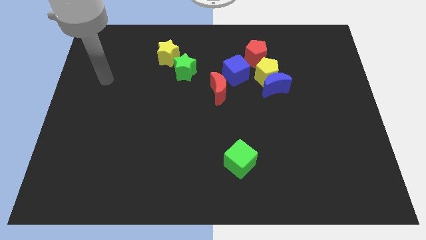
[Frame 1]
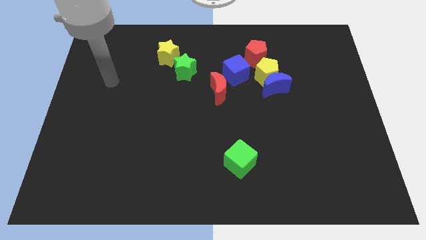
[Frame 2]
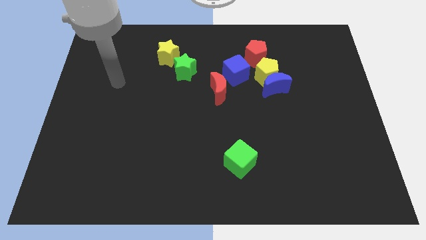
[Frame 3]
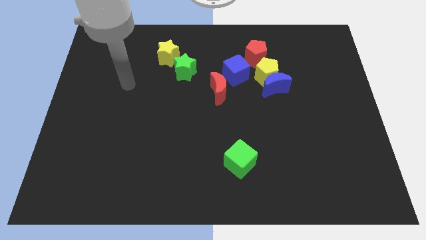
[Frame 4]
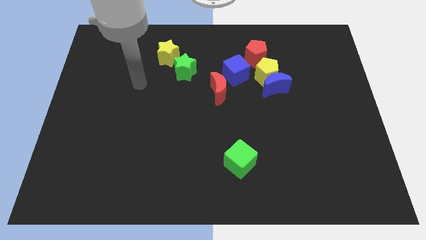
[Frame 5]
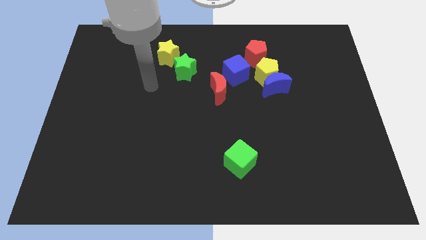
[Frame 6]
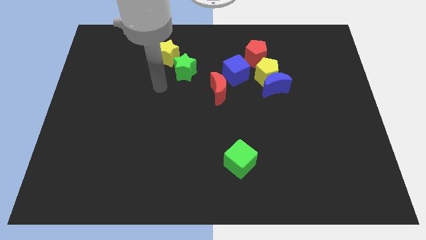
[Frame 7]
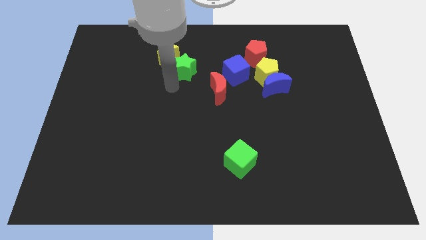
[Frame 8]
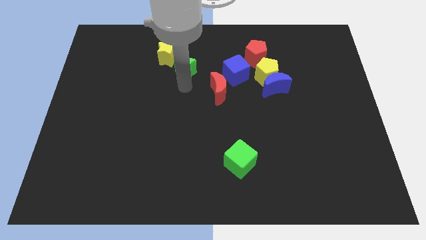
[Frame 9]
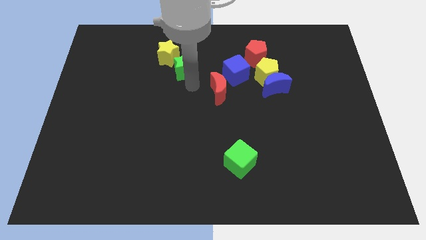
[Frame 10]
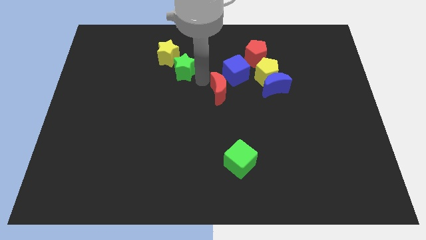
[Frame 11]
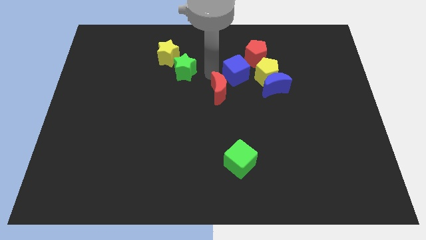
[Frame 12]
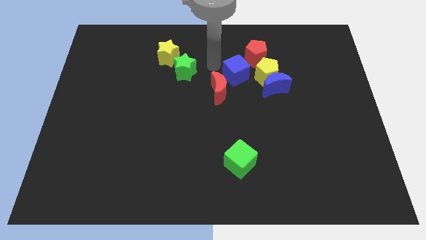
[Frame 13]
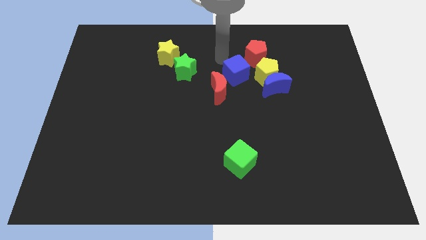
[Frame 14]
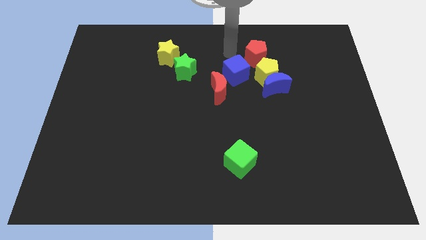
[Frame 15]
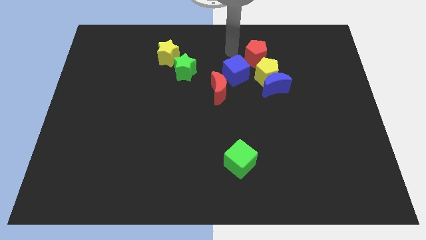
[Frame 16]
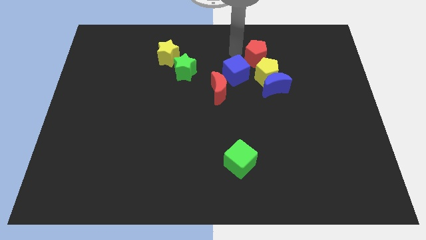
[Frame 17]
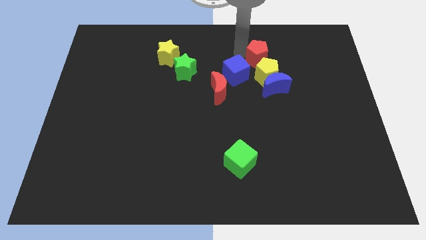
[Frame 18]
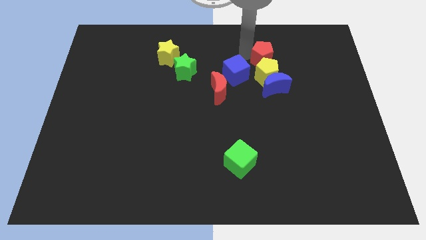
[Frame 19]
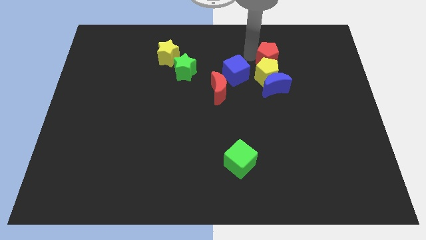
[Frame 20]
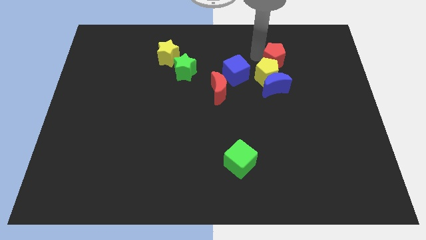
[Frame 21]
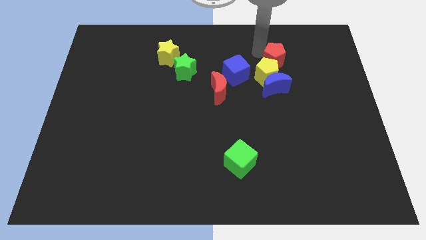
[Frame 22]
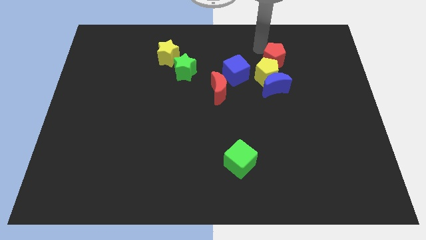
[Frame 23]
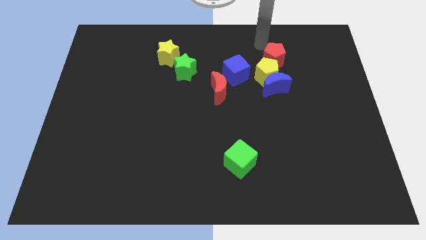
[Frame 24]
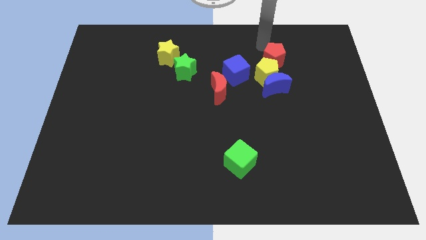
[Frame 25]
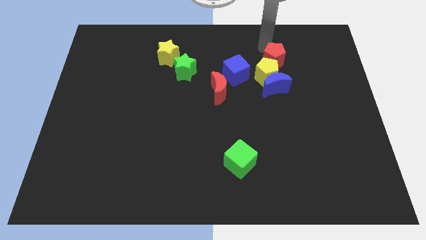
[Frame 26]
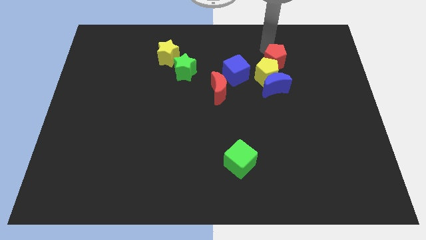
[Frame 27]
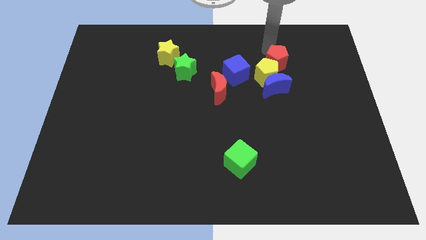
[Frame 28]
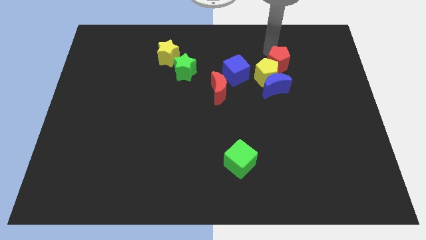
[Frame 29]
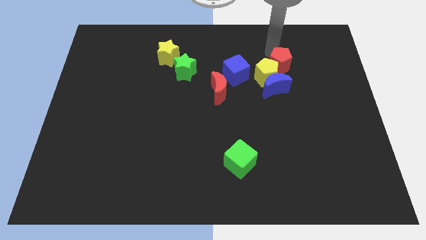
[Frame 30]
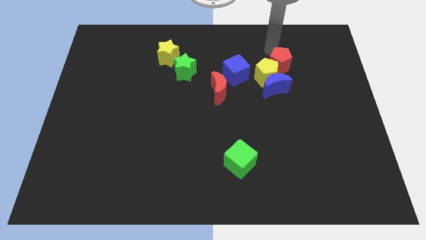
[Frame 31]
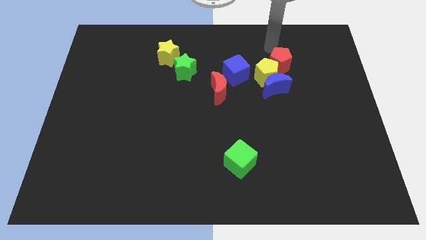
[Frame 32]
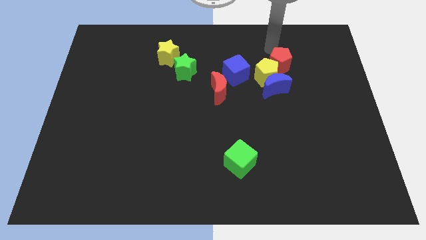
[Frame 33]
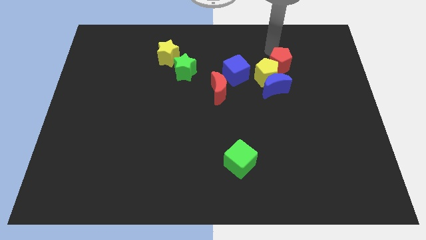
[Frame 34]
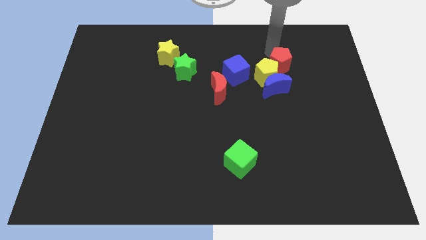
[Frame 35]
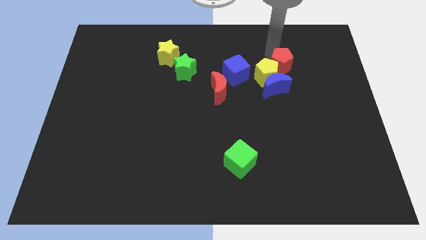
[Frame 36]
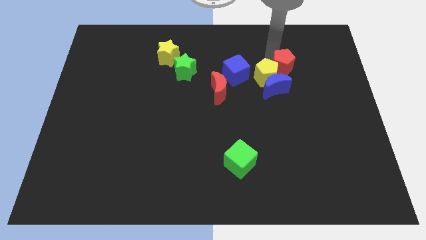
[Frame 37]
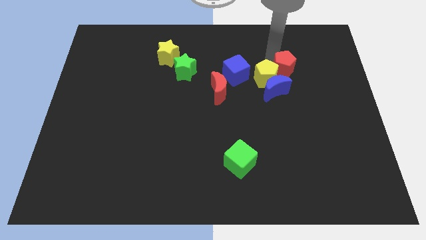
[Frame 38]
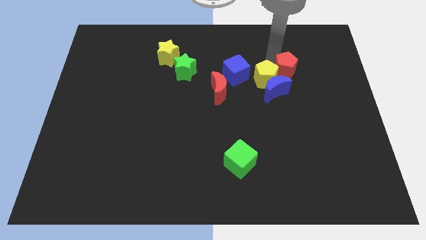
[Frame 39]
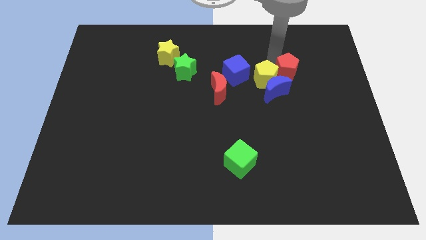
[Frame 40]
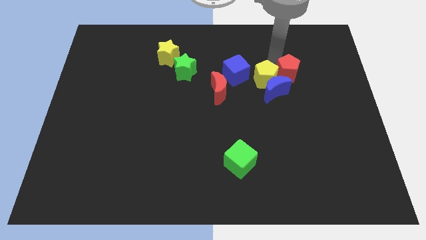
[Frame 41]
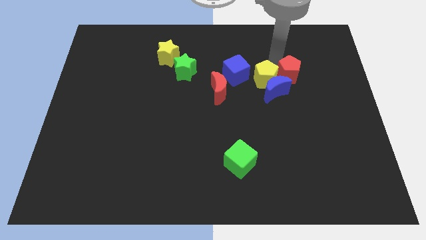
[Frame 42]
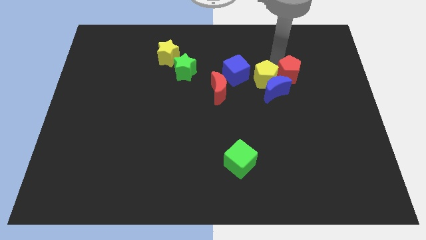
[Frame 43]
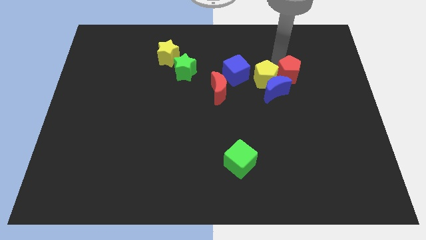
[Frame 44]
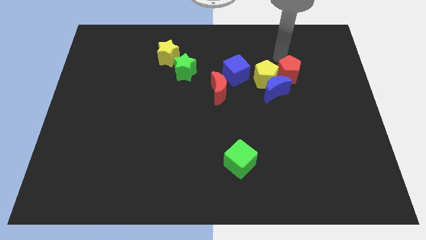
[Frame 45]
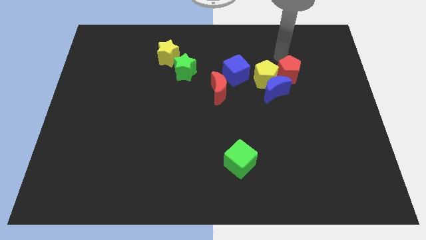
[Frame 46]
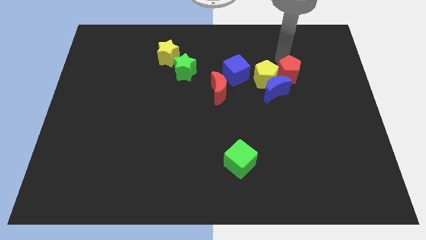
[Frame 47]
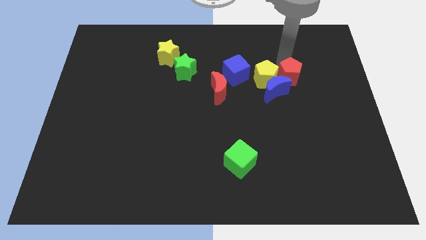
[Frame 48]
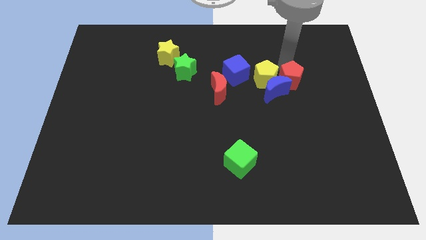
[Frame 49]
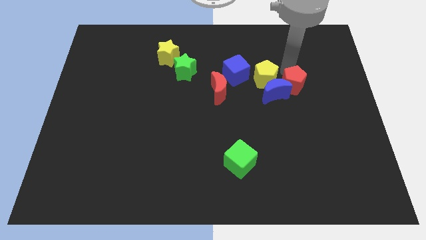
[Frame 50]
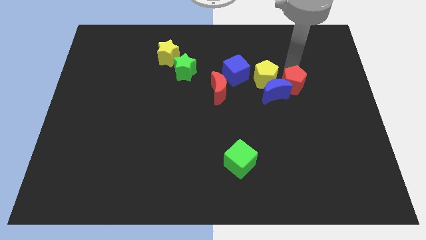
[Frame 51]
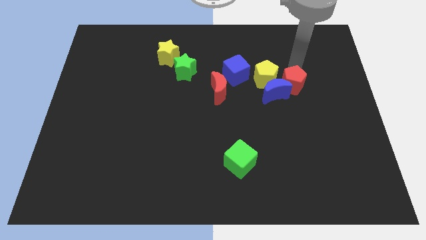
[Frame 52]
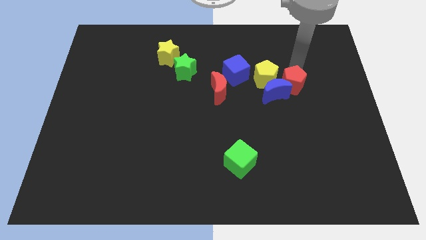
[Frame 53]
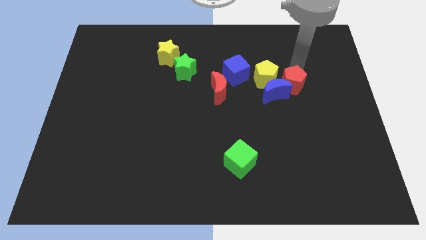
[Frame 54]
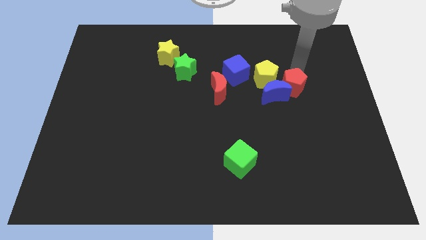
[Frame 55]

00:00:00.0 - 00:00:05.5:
push the red pentagon a little downwards

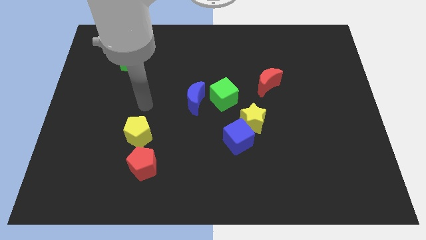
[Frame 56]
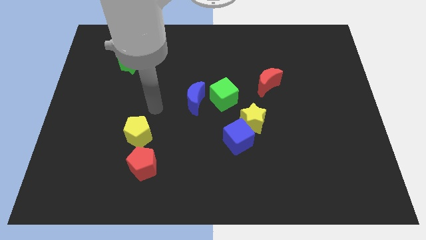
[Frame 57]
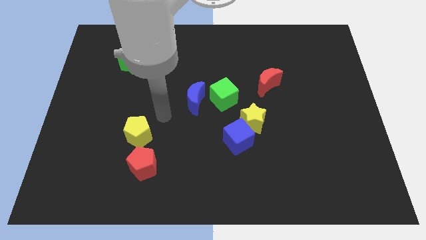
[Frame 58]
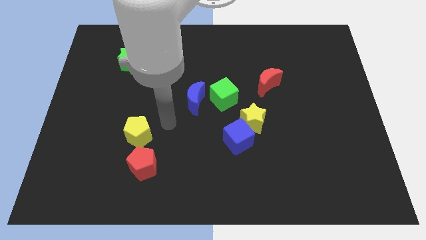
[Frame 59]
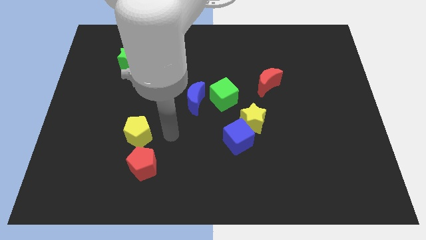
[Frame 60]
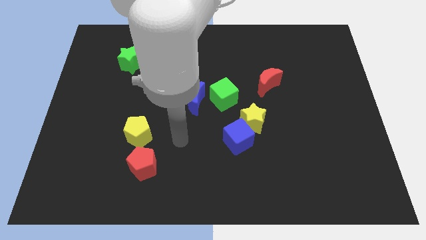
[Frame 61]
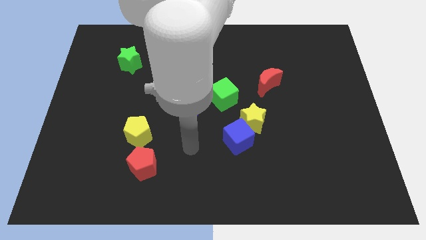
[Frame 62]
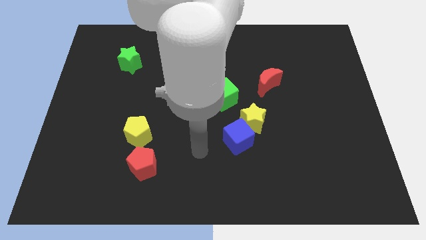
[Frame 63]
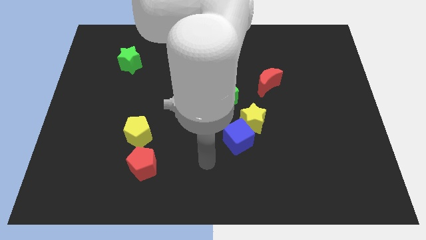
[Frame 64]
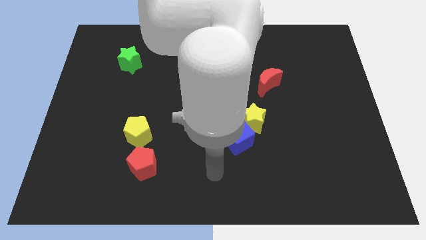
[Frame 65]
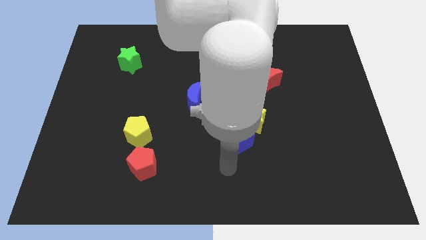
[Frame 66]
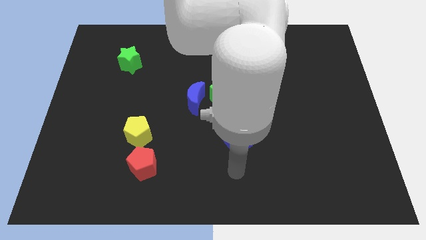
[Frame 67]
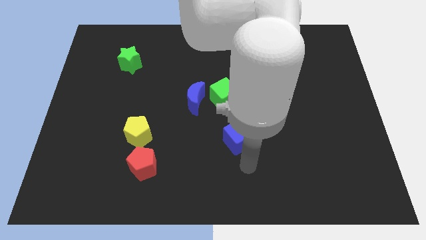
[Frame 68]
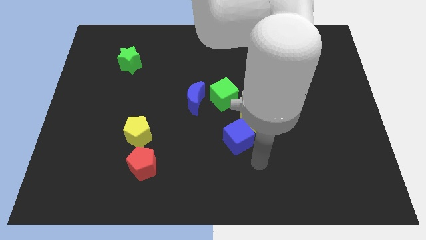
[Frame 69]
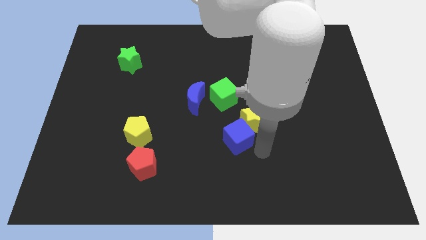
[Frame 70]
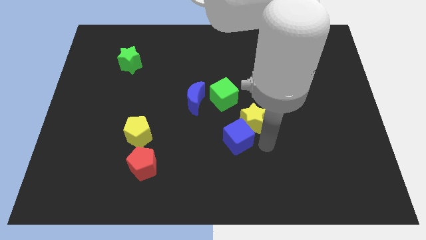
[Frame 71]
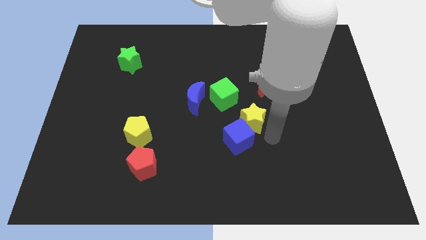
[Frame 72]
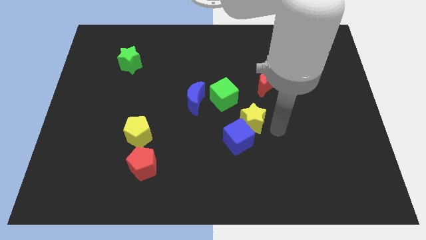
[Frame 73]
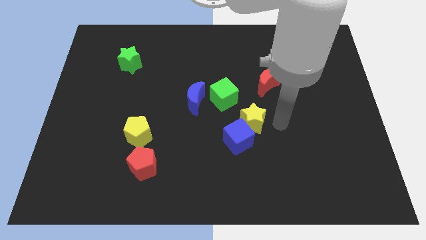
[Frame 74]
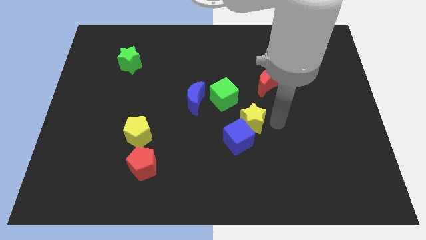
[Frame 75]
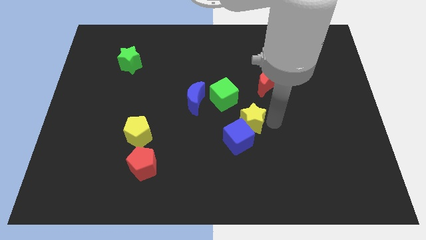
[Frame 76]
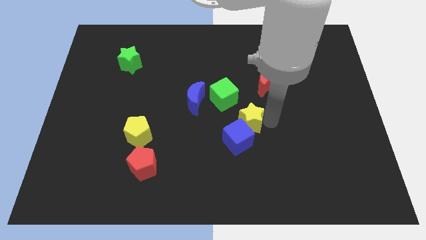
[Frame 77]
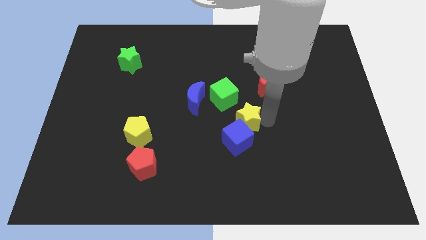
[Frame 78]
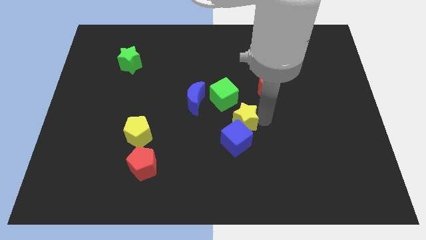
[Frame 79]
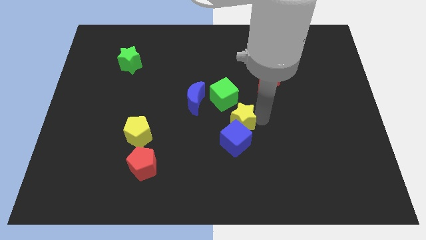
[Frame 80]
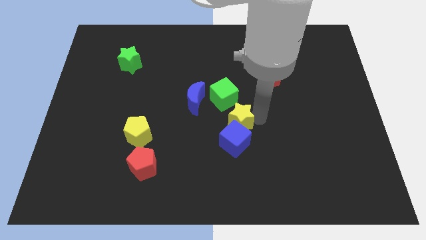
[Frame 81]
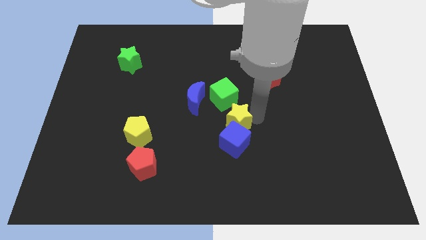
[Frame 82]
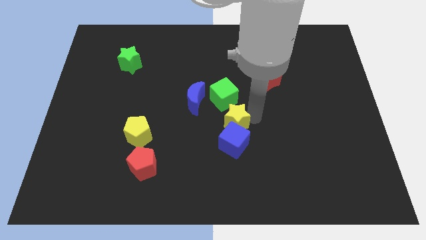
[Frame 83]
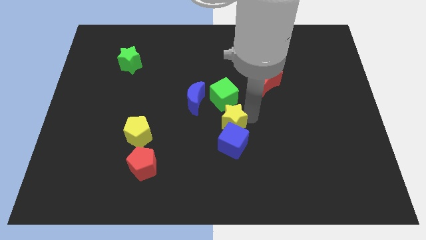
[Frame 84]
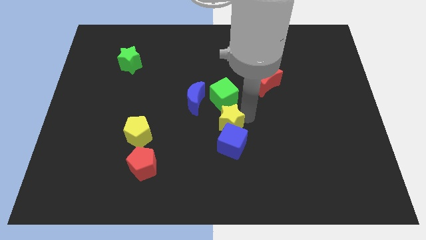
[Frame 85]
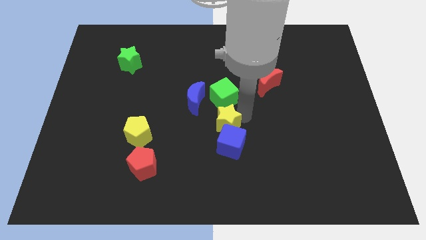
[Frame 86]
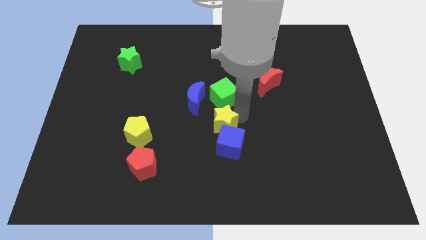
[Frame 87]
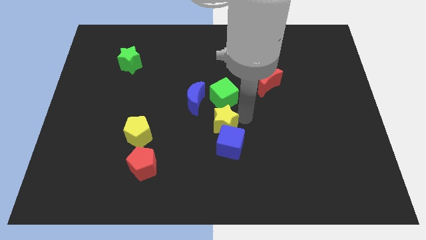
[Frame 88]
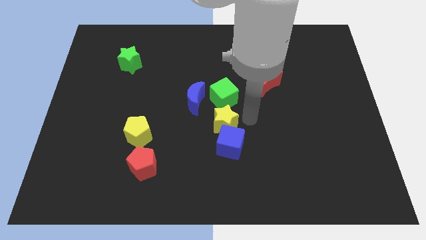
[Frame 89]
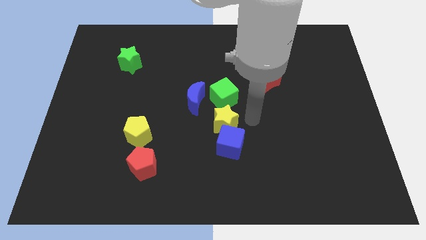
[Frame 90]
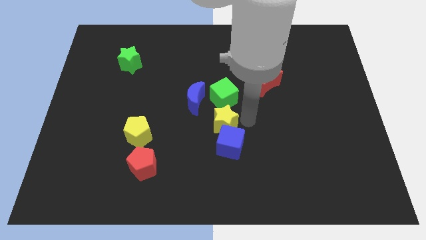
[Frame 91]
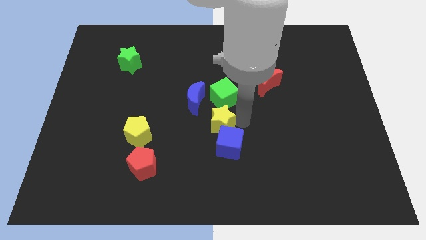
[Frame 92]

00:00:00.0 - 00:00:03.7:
slide the yellow star to the left slightly
